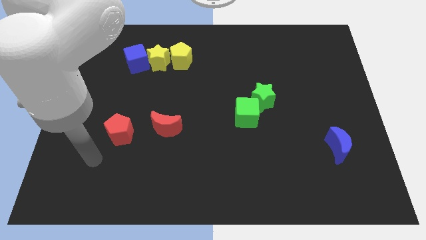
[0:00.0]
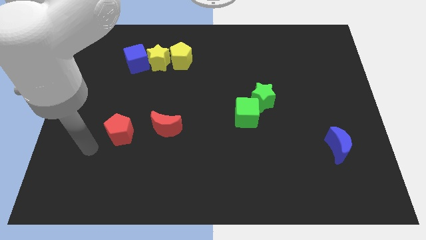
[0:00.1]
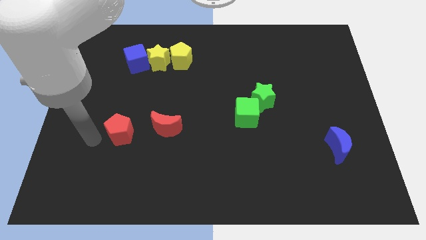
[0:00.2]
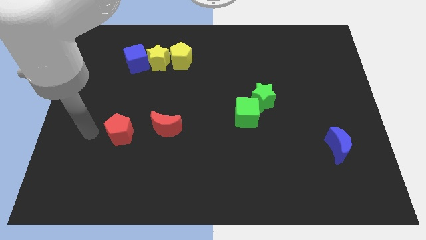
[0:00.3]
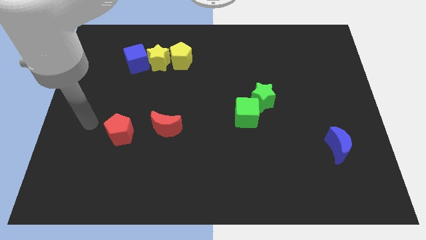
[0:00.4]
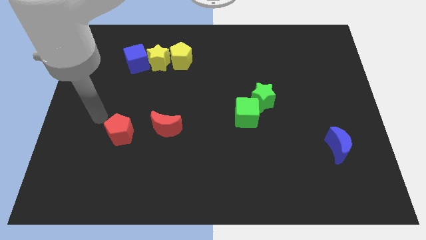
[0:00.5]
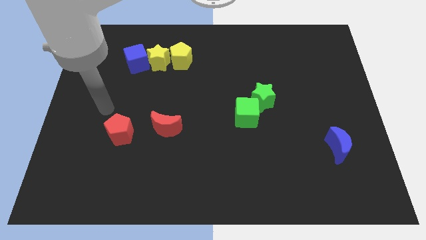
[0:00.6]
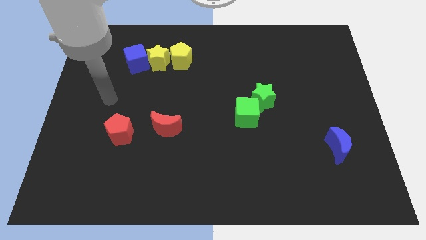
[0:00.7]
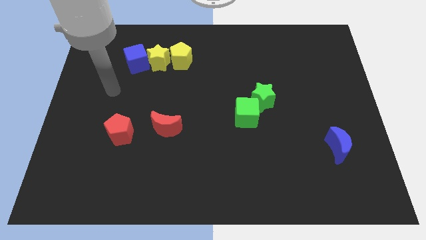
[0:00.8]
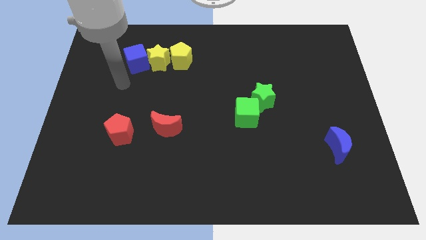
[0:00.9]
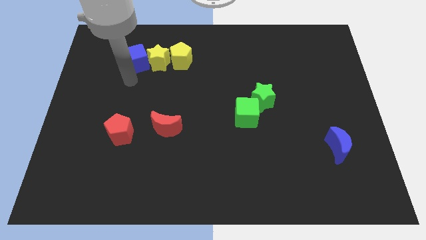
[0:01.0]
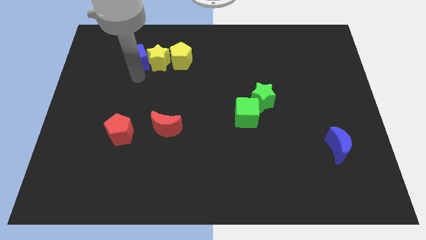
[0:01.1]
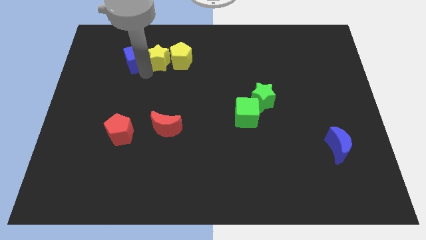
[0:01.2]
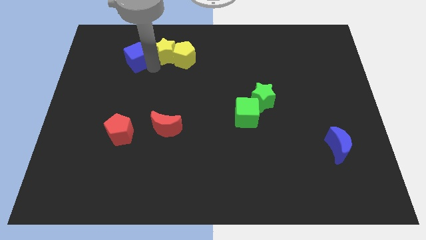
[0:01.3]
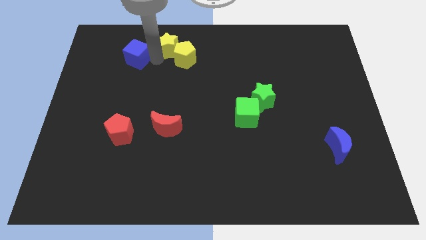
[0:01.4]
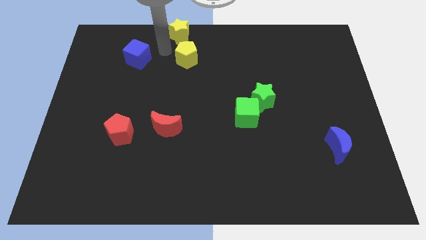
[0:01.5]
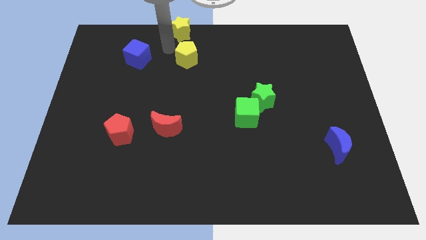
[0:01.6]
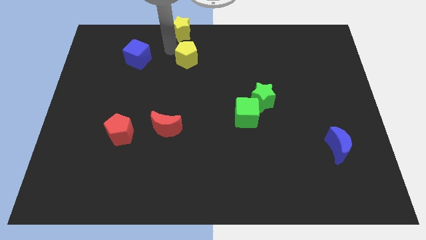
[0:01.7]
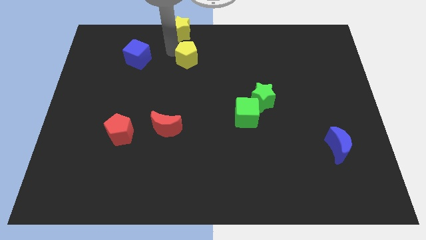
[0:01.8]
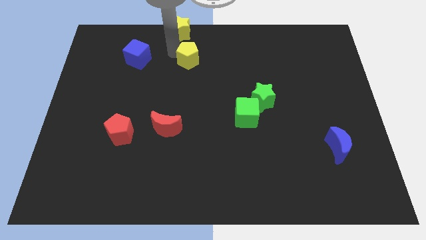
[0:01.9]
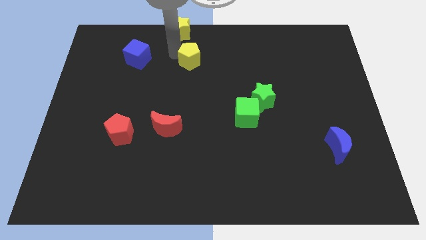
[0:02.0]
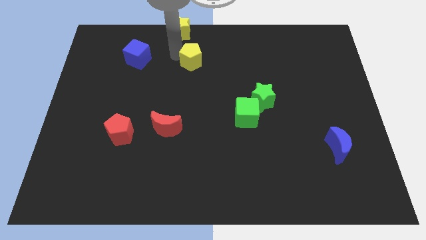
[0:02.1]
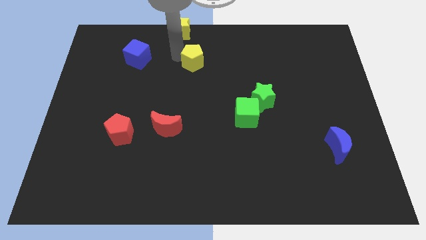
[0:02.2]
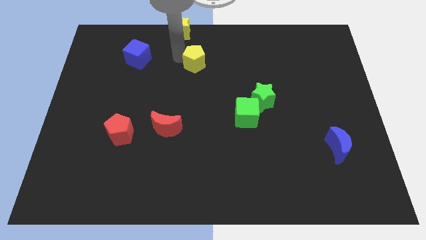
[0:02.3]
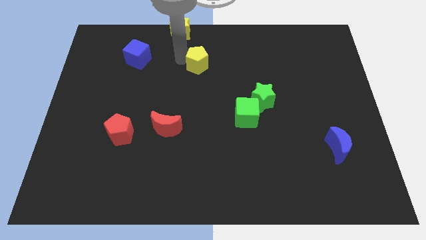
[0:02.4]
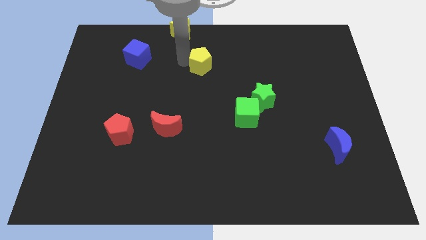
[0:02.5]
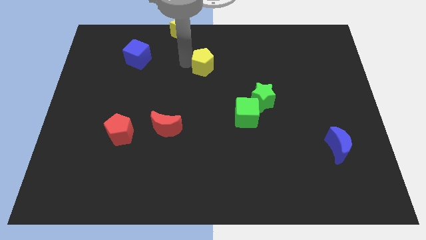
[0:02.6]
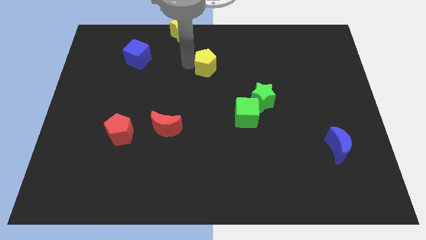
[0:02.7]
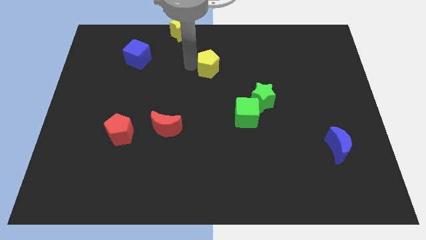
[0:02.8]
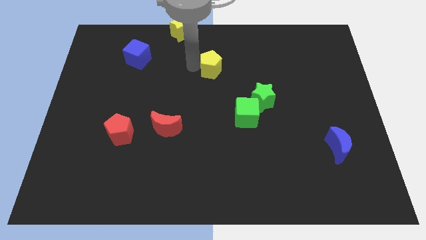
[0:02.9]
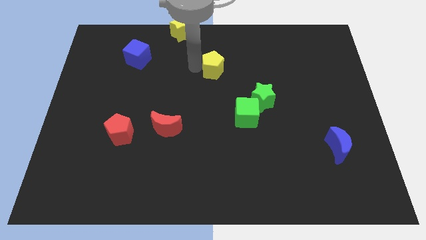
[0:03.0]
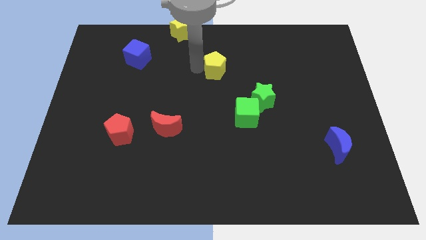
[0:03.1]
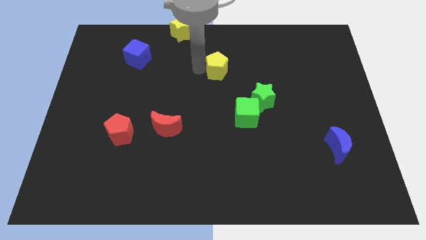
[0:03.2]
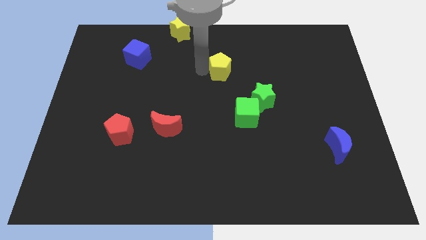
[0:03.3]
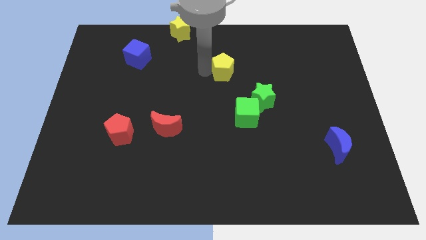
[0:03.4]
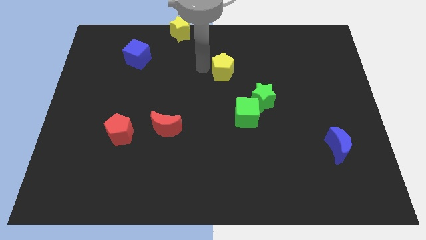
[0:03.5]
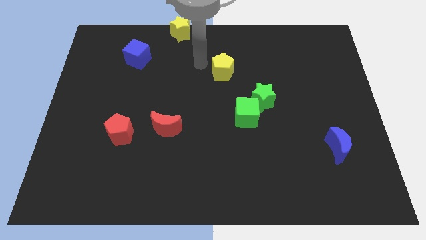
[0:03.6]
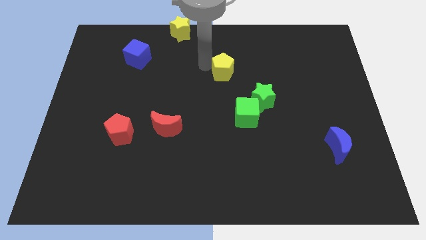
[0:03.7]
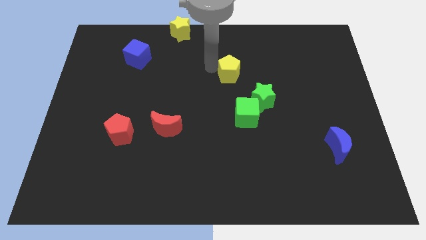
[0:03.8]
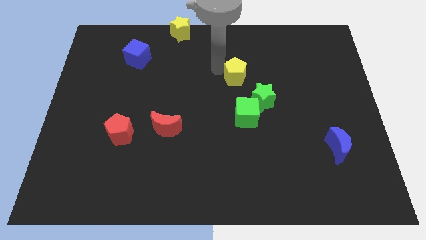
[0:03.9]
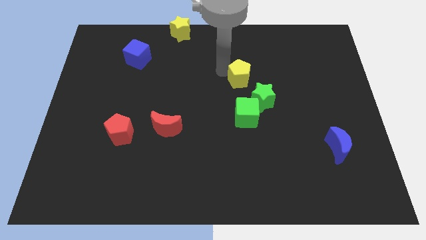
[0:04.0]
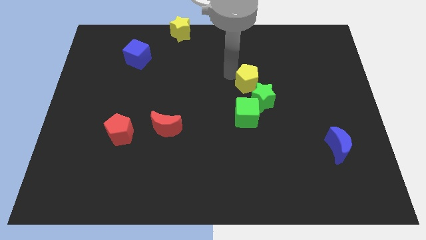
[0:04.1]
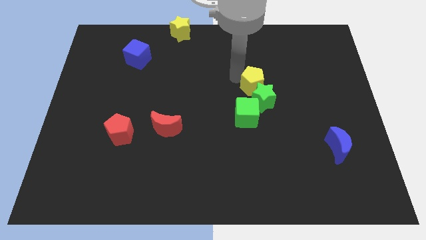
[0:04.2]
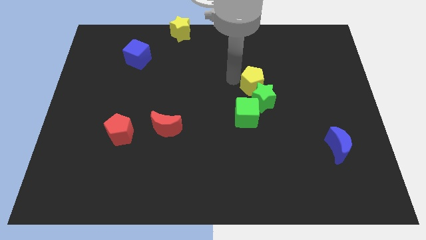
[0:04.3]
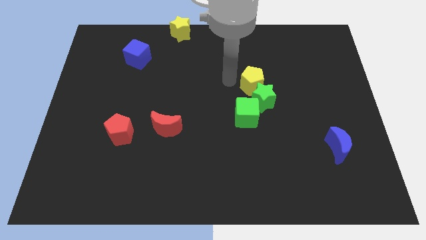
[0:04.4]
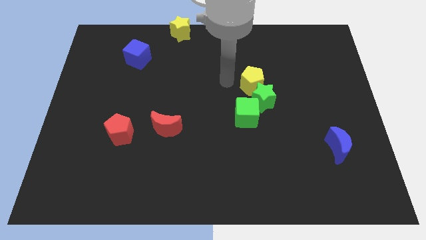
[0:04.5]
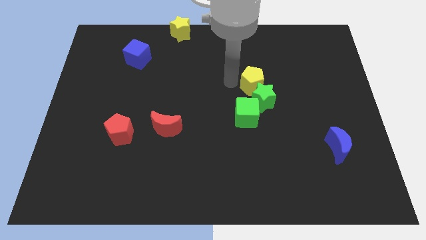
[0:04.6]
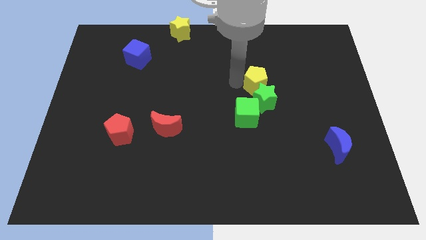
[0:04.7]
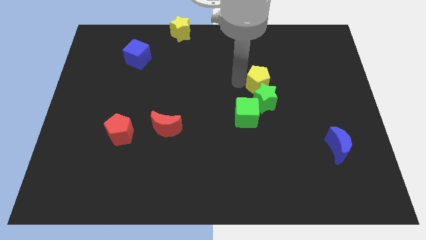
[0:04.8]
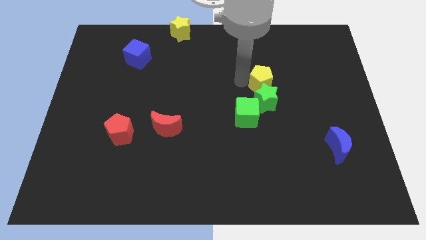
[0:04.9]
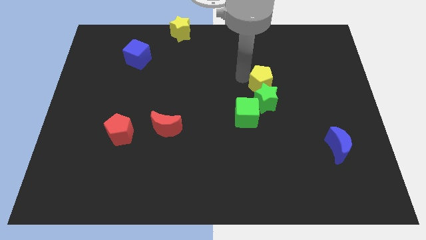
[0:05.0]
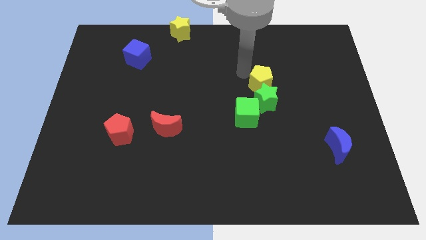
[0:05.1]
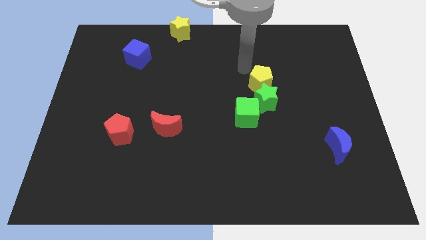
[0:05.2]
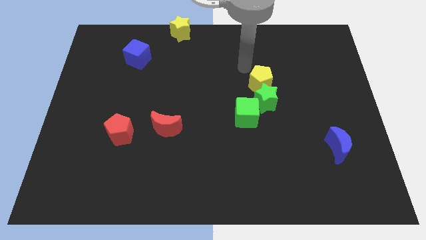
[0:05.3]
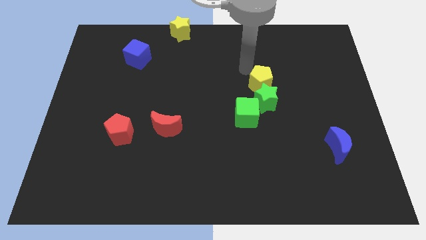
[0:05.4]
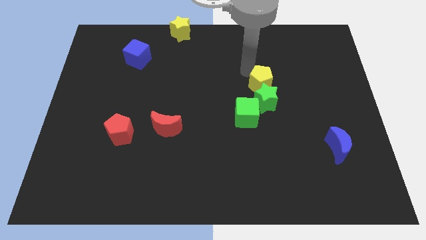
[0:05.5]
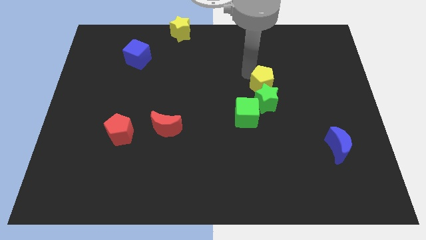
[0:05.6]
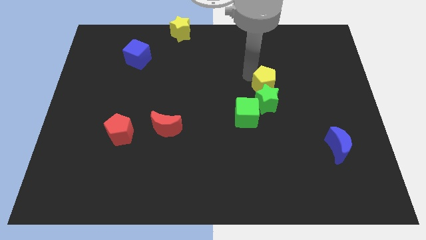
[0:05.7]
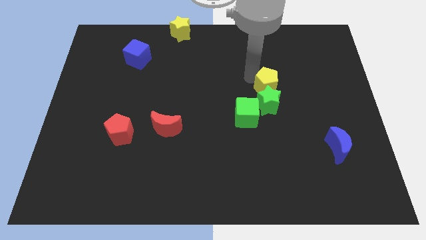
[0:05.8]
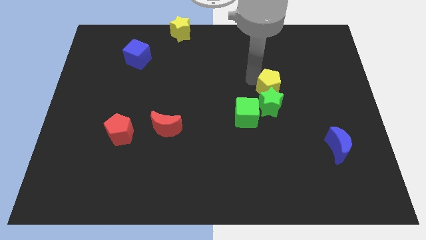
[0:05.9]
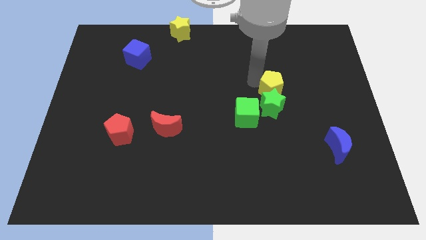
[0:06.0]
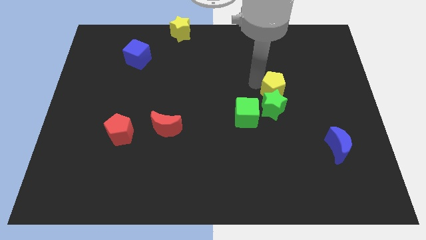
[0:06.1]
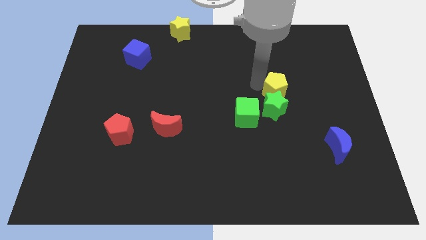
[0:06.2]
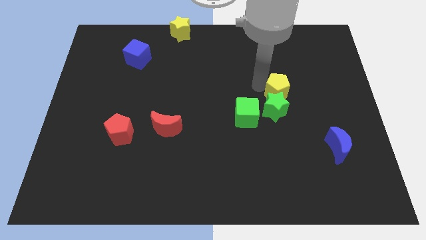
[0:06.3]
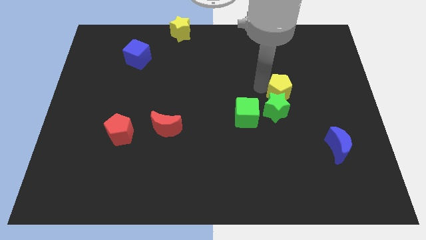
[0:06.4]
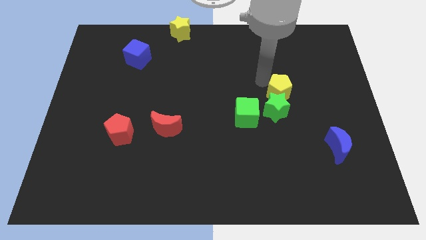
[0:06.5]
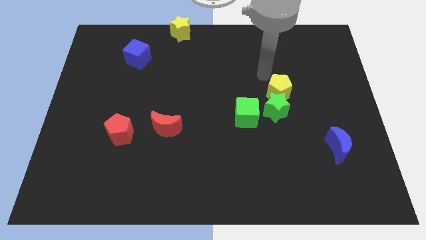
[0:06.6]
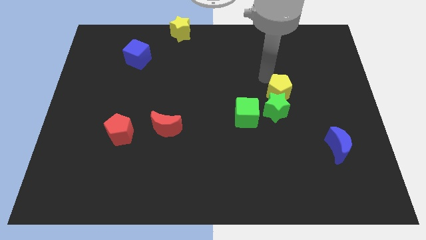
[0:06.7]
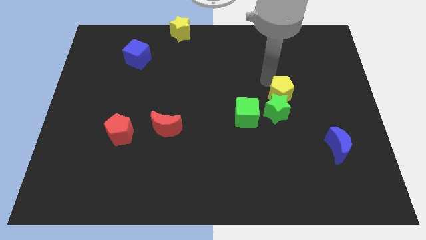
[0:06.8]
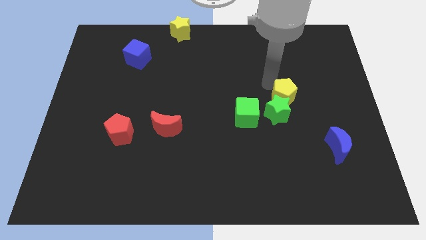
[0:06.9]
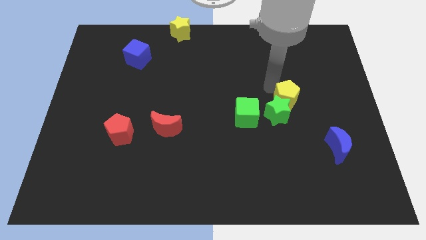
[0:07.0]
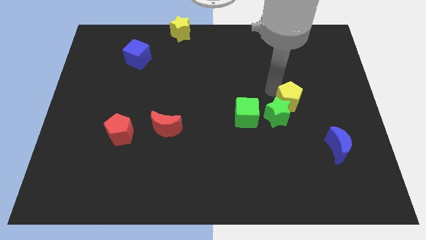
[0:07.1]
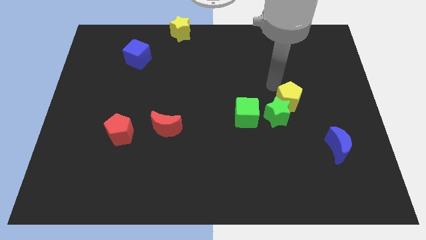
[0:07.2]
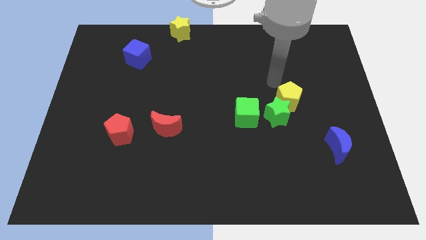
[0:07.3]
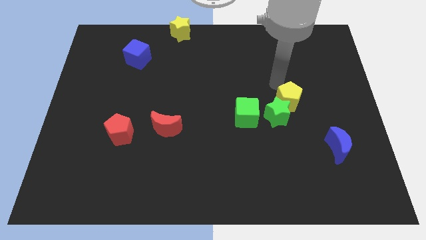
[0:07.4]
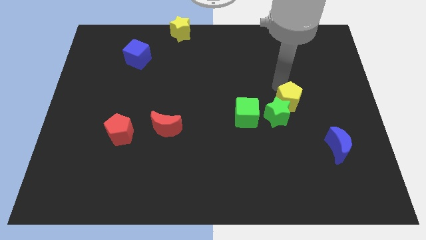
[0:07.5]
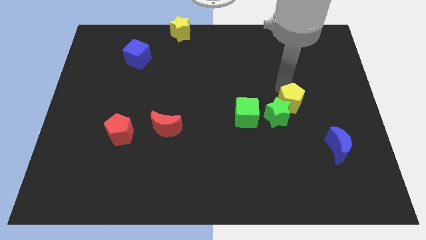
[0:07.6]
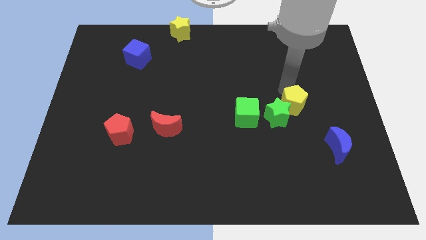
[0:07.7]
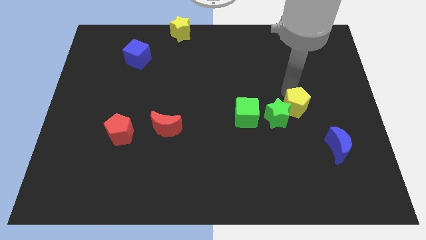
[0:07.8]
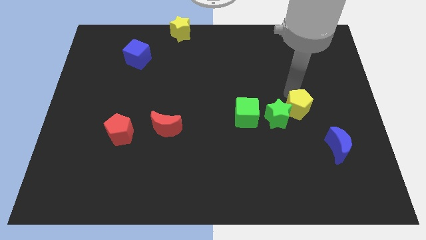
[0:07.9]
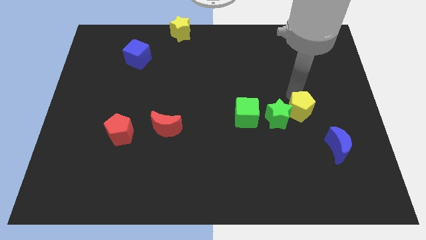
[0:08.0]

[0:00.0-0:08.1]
move the yellow pentagon to the top left side of the blue moon
